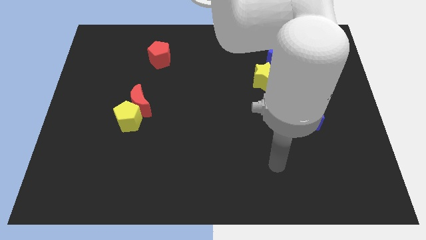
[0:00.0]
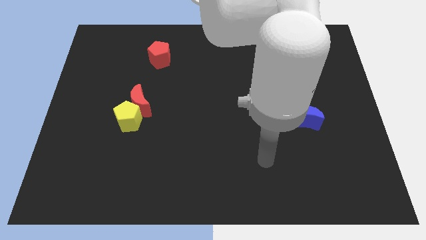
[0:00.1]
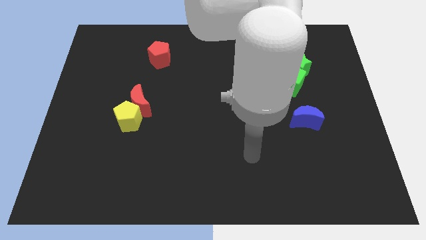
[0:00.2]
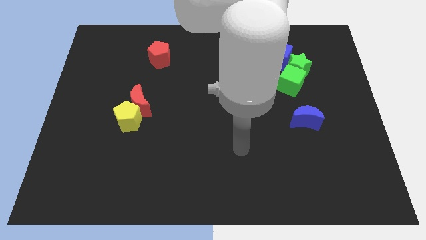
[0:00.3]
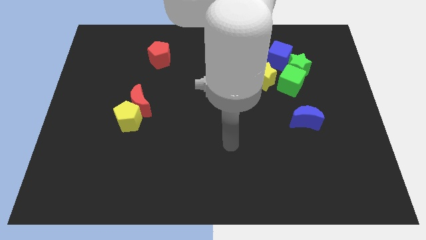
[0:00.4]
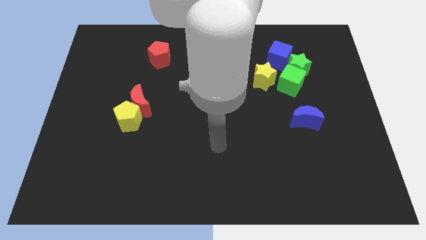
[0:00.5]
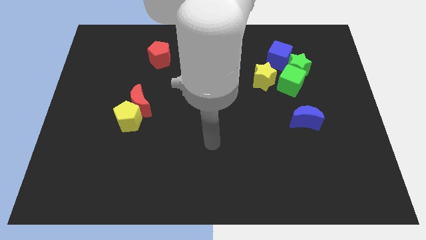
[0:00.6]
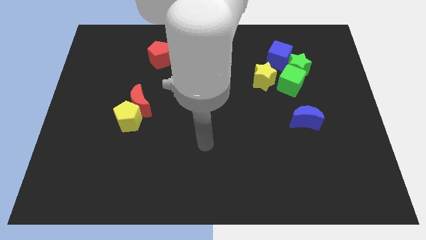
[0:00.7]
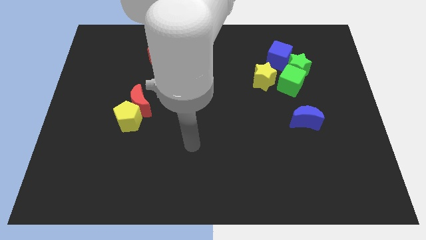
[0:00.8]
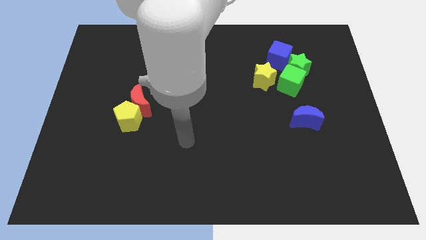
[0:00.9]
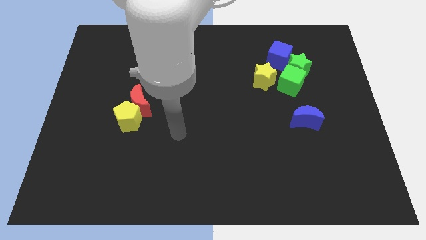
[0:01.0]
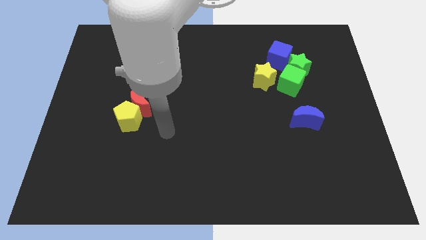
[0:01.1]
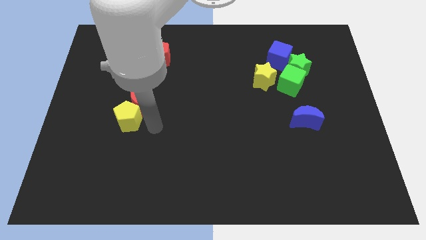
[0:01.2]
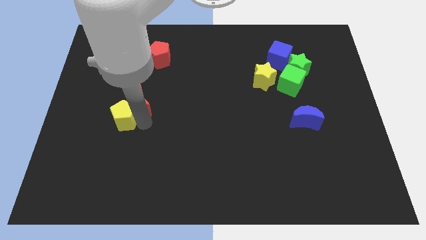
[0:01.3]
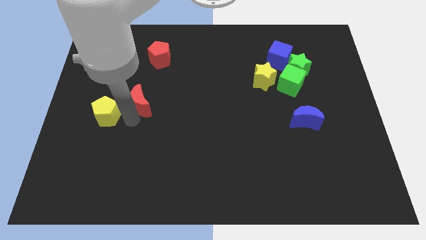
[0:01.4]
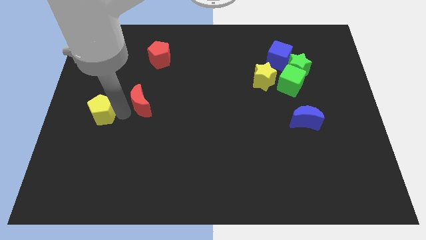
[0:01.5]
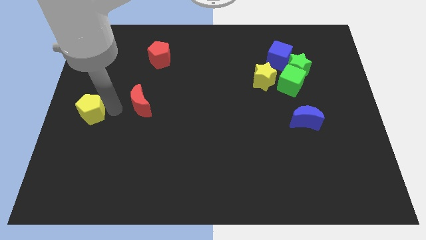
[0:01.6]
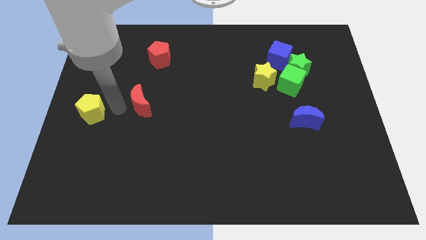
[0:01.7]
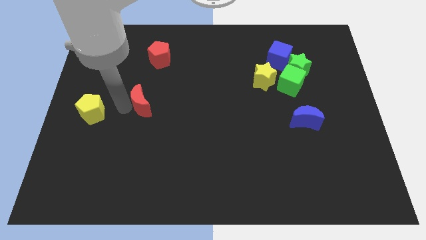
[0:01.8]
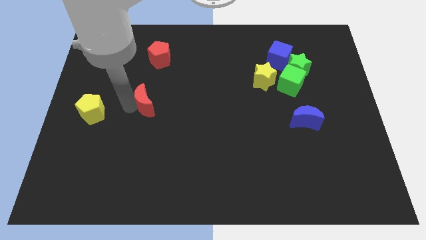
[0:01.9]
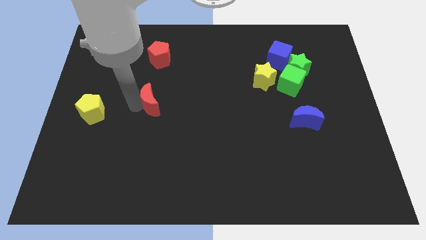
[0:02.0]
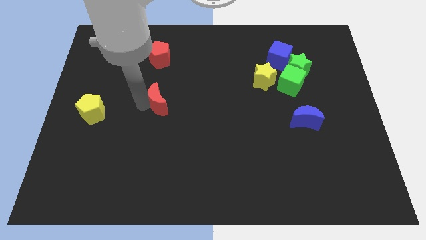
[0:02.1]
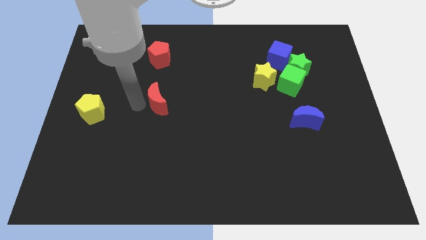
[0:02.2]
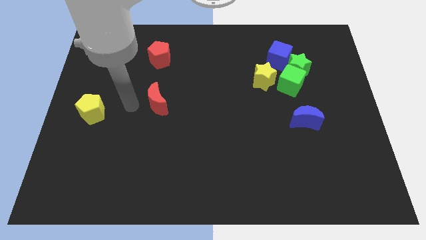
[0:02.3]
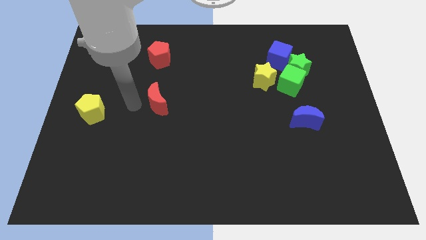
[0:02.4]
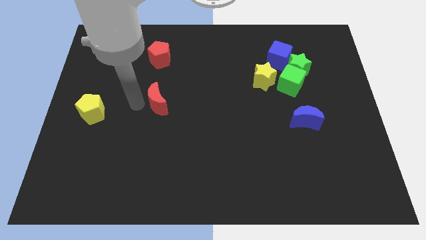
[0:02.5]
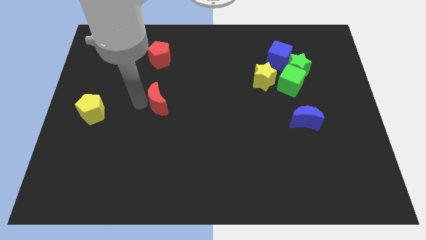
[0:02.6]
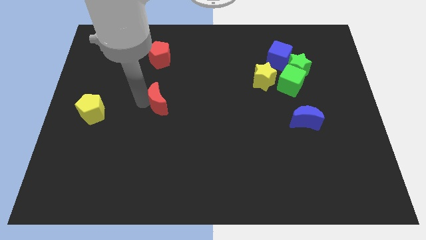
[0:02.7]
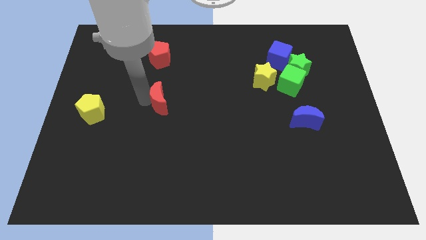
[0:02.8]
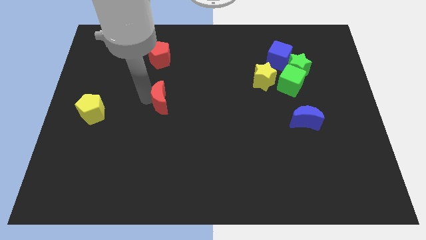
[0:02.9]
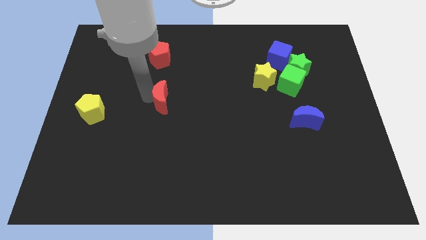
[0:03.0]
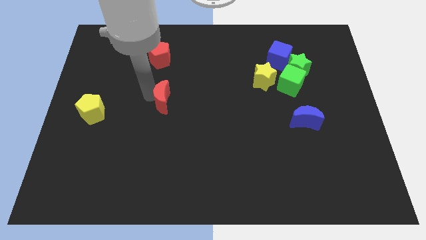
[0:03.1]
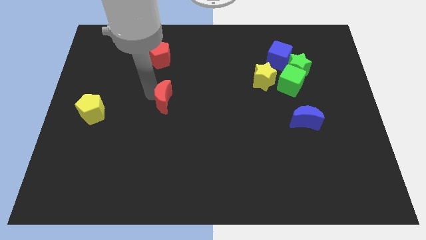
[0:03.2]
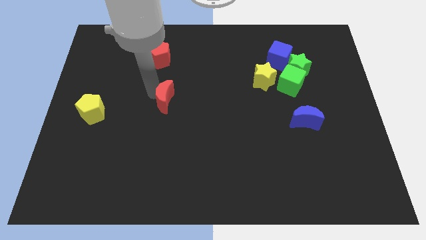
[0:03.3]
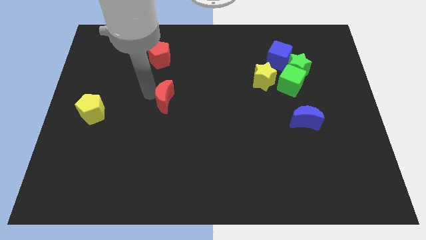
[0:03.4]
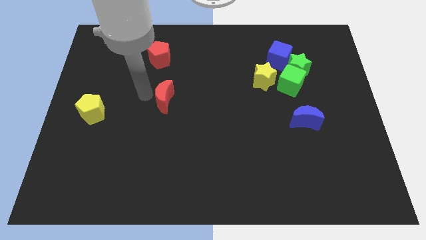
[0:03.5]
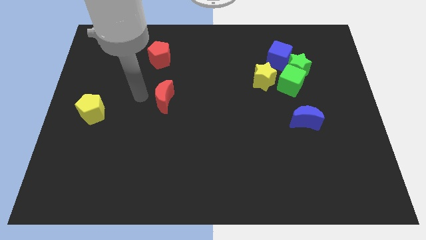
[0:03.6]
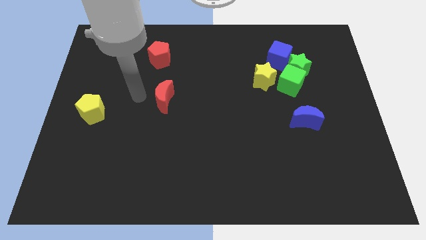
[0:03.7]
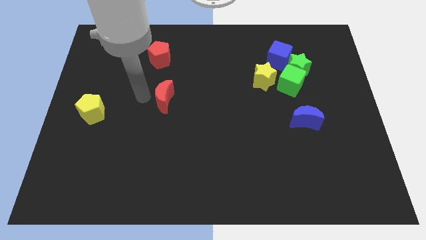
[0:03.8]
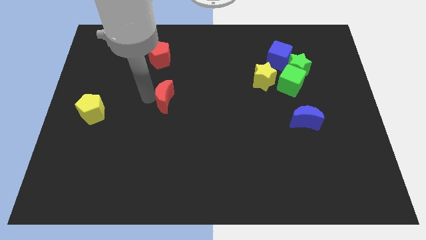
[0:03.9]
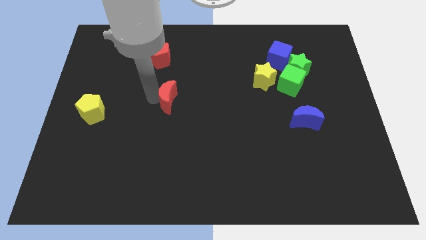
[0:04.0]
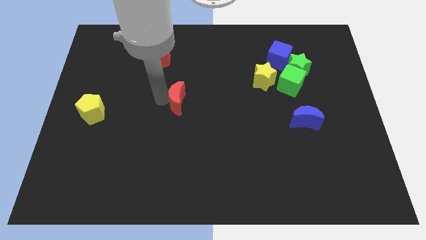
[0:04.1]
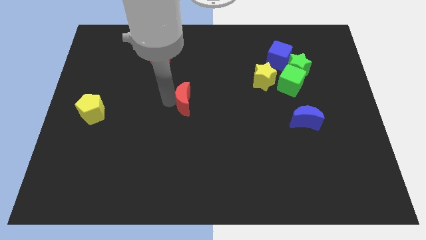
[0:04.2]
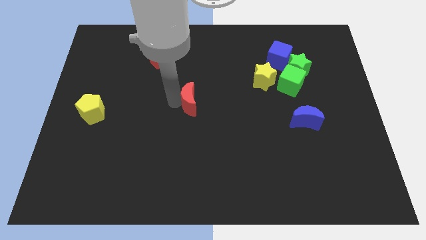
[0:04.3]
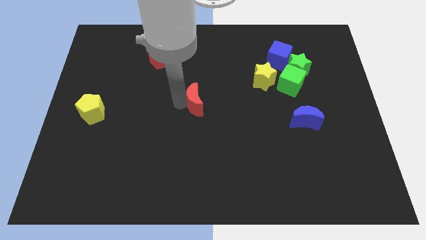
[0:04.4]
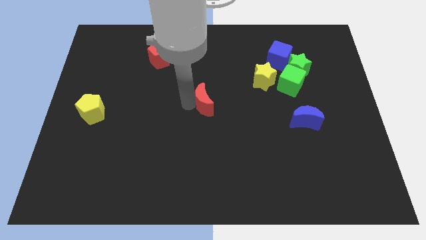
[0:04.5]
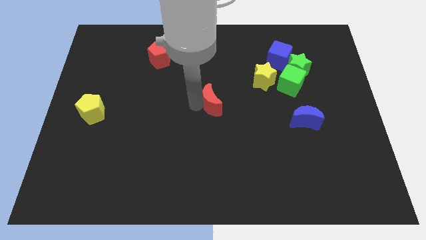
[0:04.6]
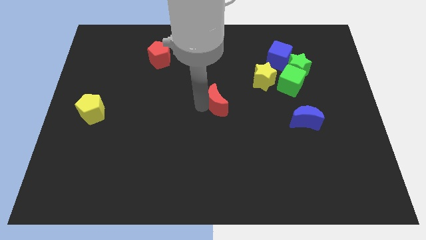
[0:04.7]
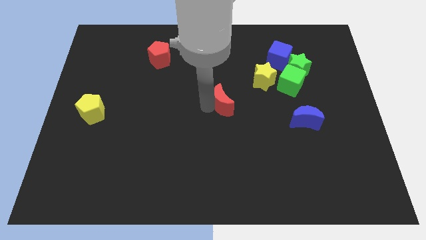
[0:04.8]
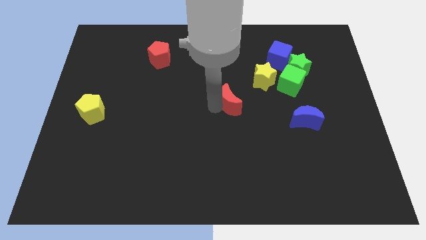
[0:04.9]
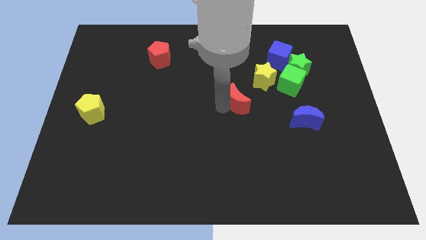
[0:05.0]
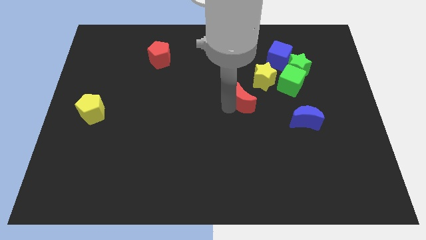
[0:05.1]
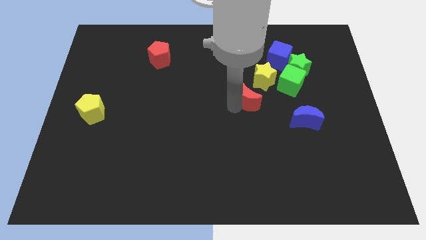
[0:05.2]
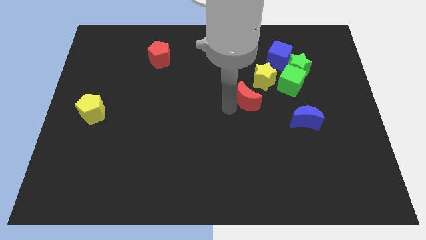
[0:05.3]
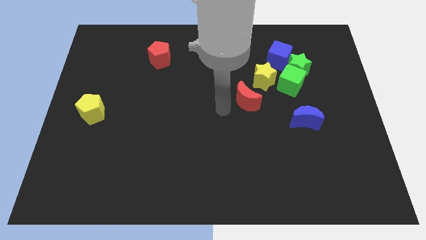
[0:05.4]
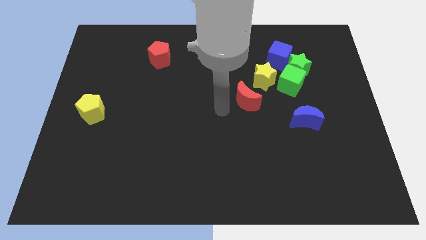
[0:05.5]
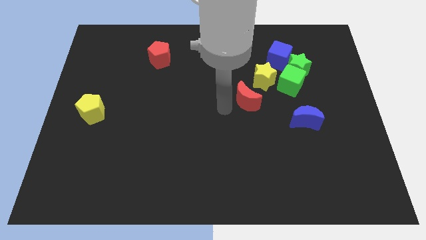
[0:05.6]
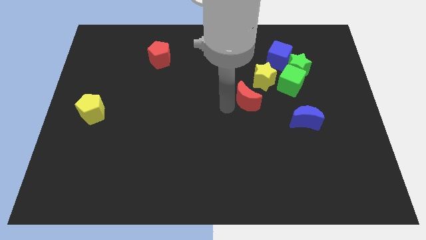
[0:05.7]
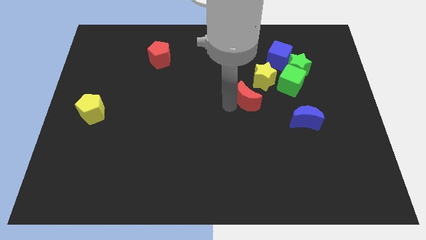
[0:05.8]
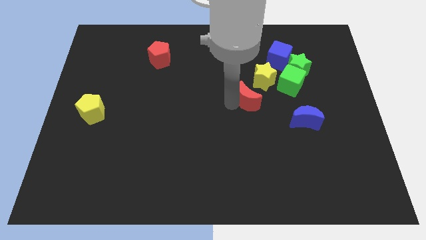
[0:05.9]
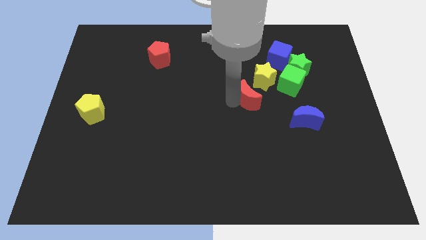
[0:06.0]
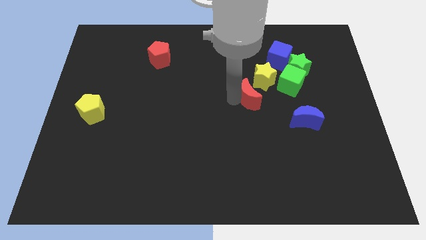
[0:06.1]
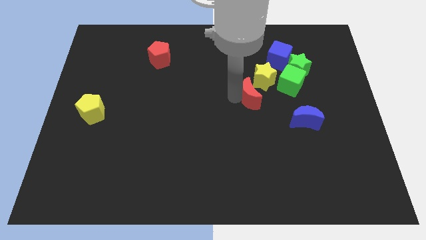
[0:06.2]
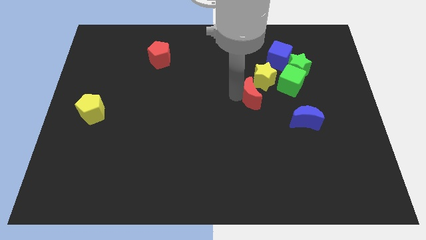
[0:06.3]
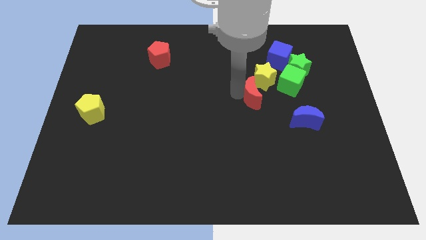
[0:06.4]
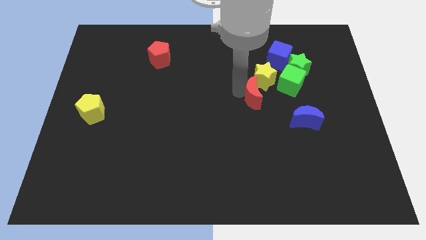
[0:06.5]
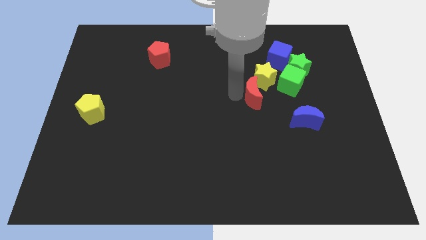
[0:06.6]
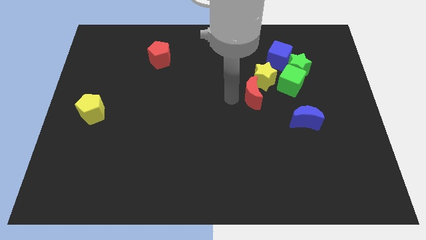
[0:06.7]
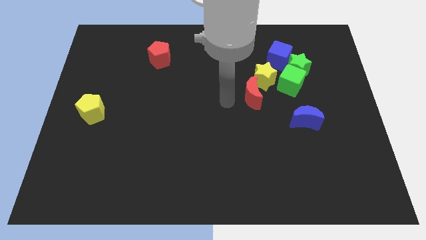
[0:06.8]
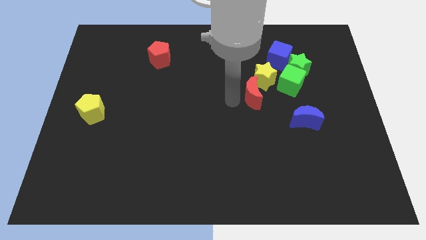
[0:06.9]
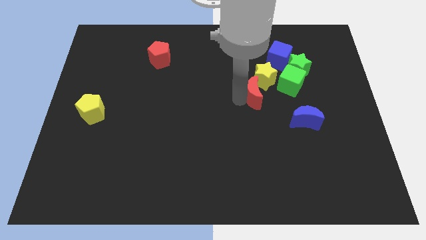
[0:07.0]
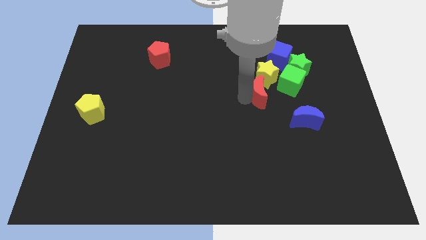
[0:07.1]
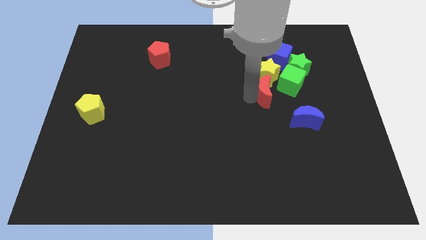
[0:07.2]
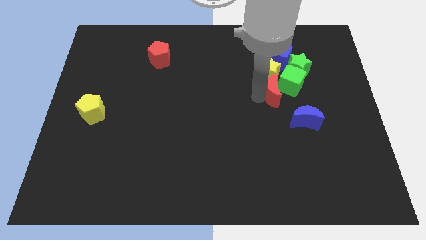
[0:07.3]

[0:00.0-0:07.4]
slide the red moon to the green cube
